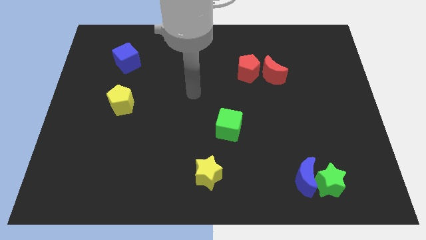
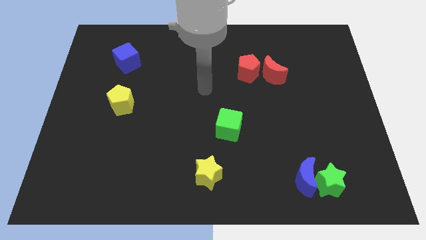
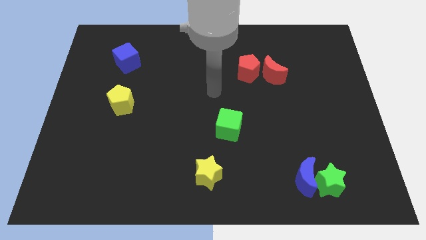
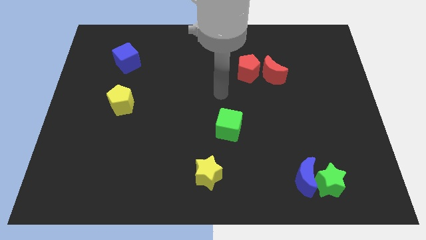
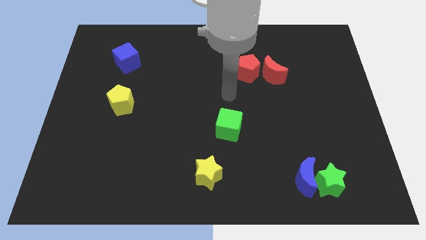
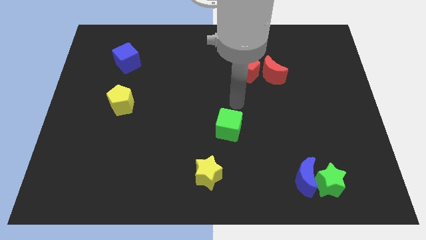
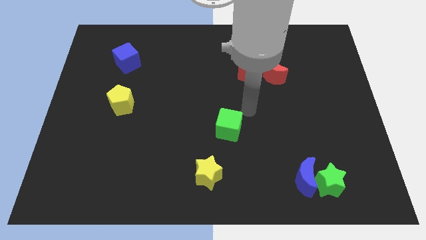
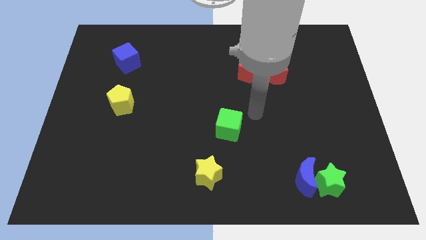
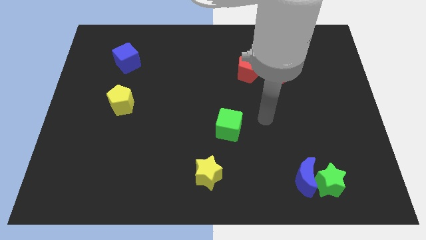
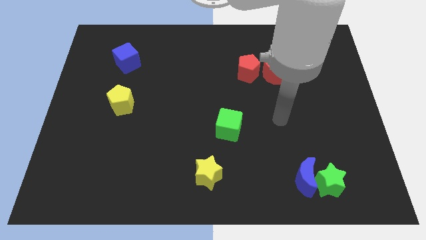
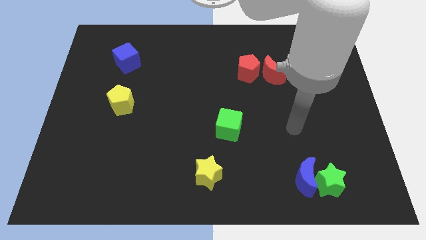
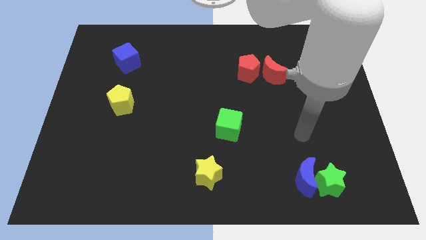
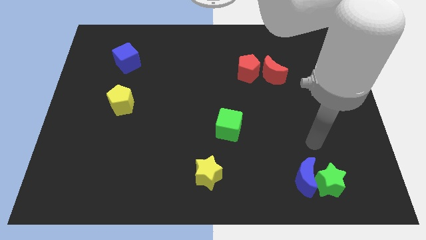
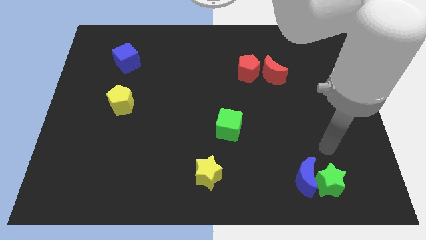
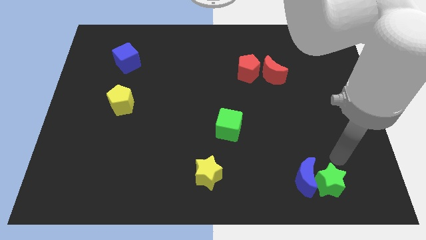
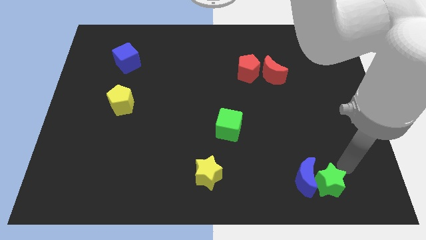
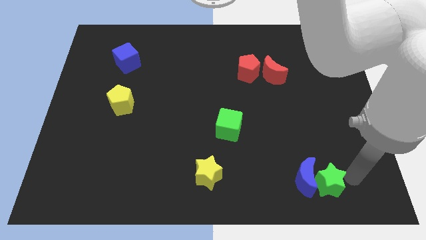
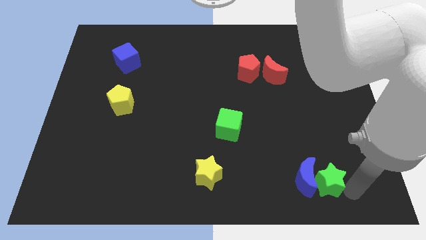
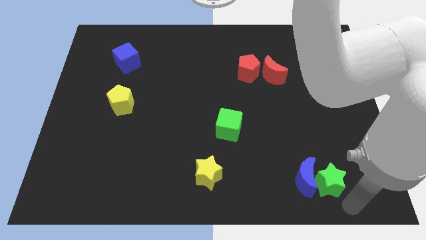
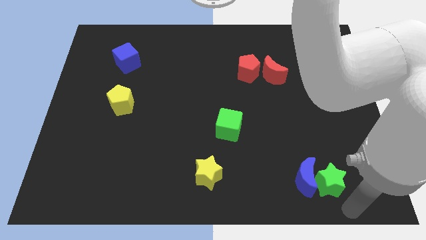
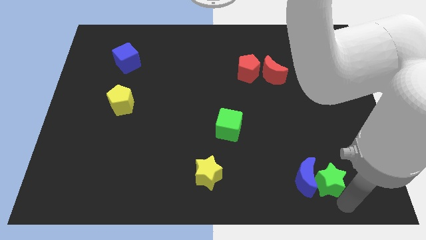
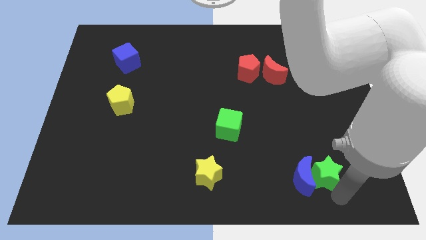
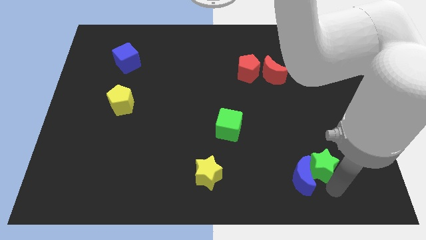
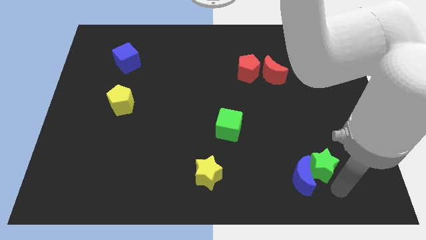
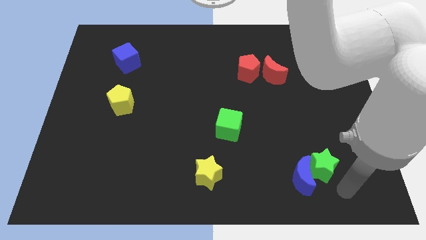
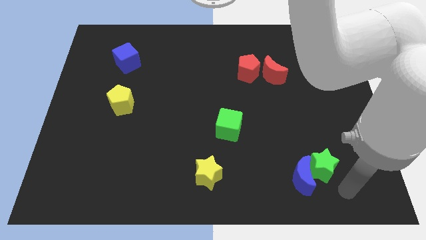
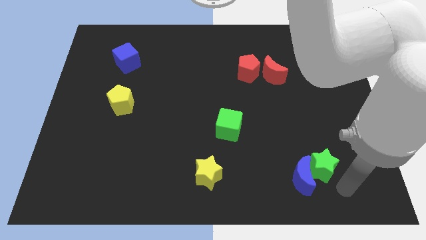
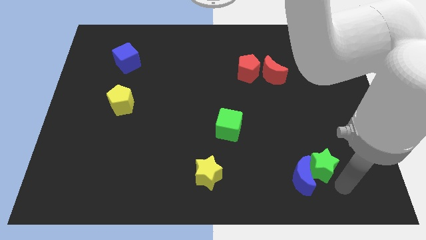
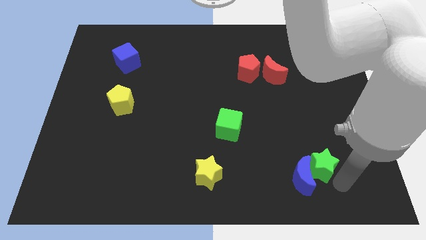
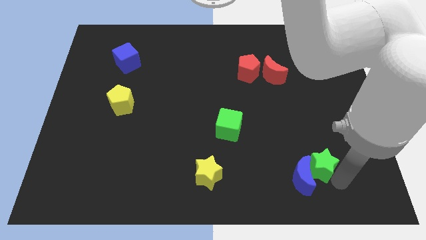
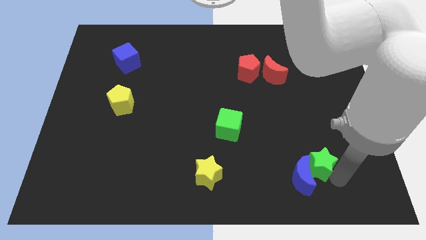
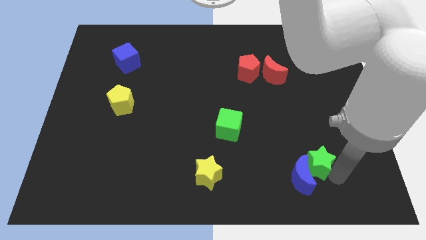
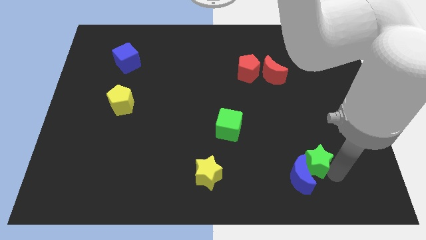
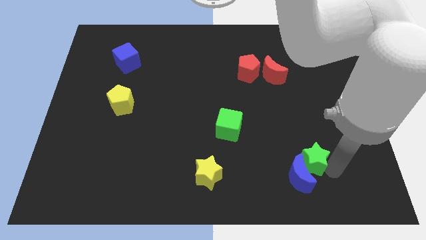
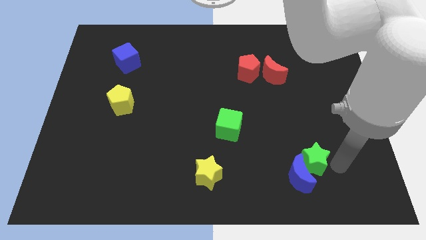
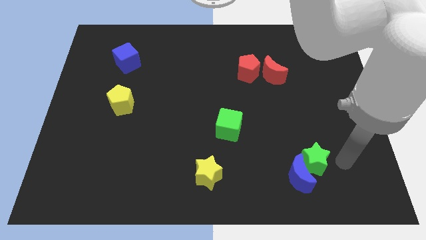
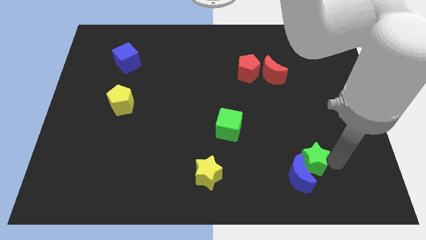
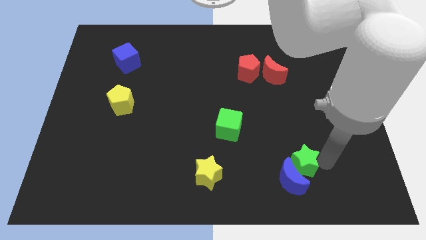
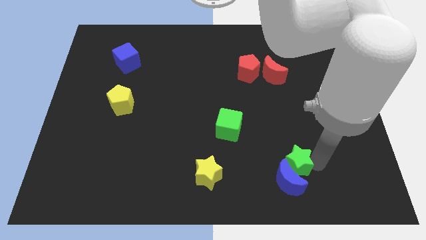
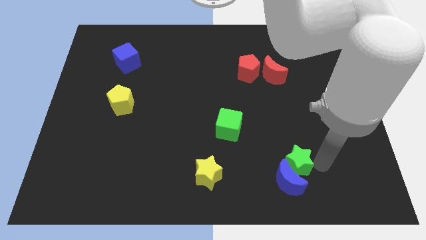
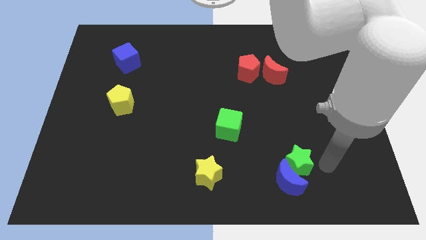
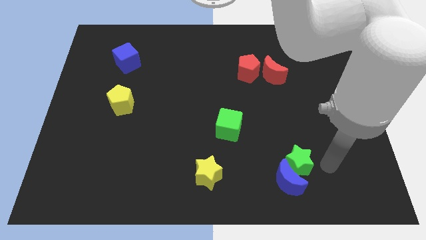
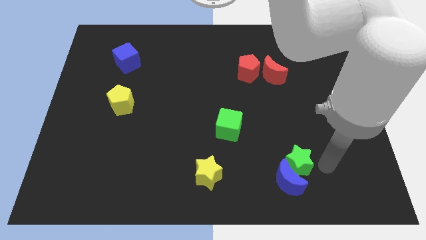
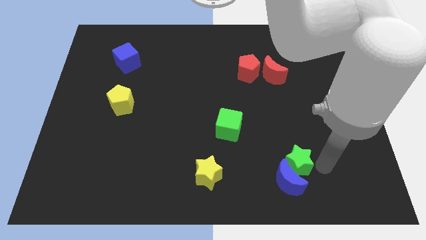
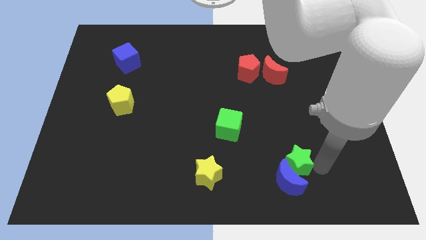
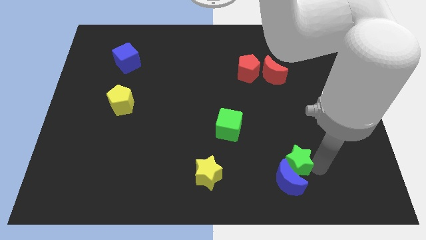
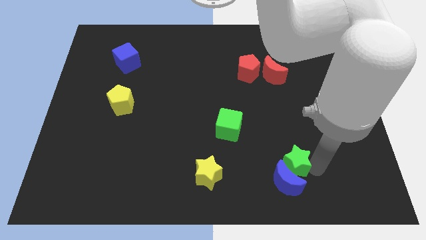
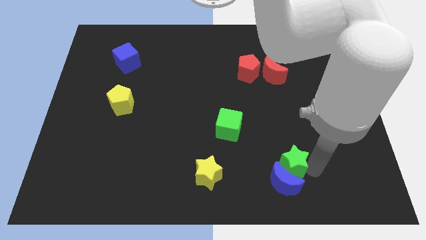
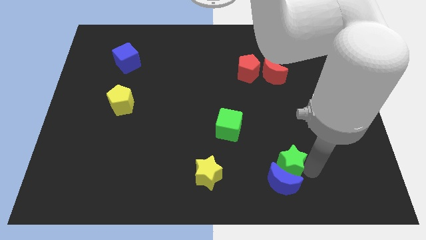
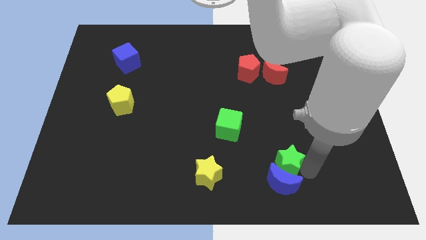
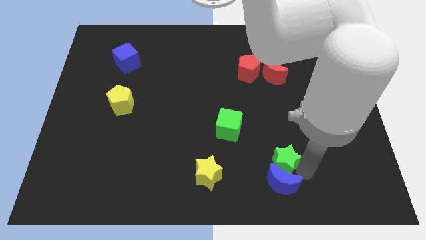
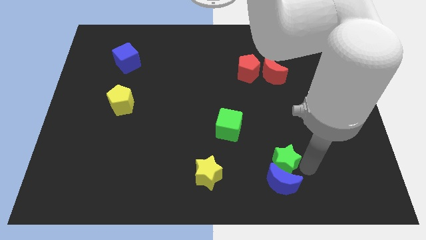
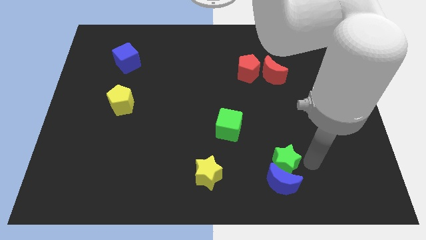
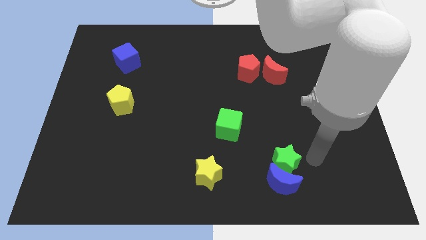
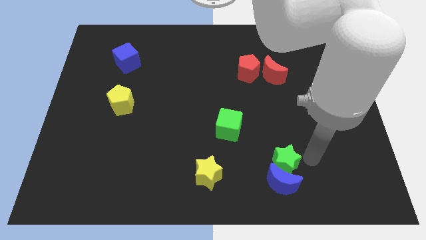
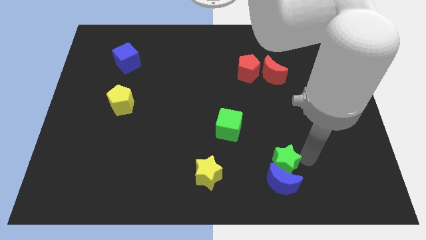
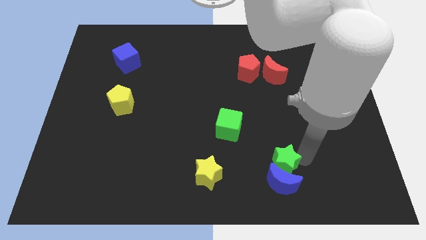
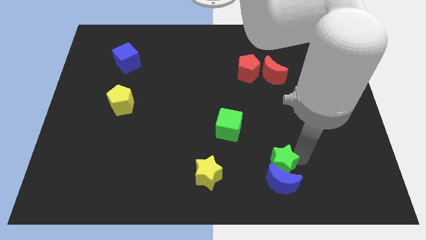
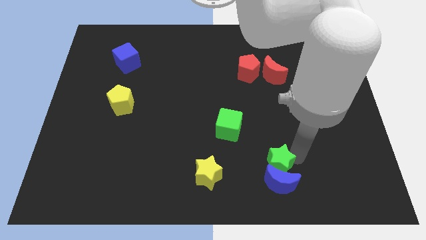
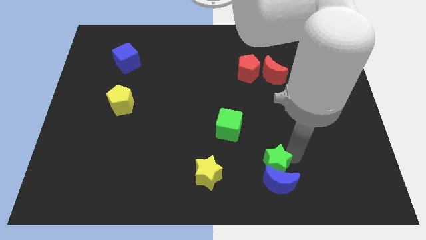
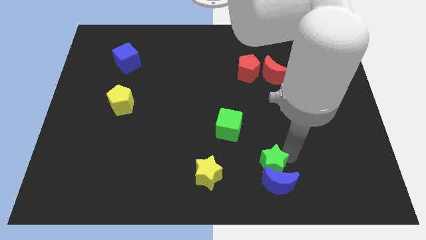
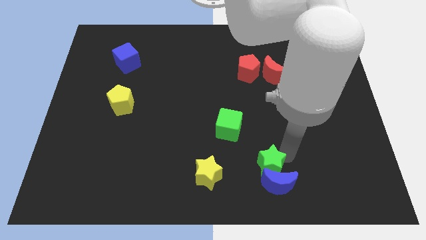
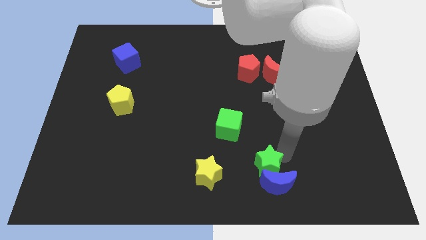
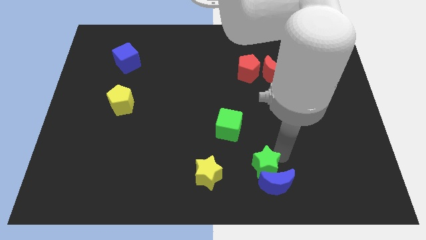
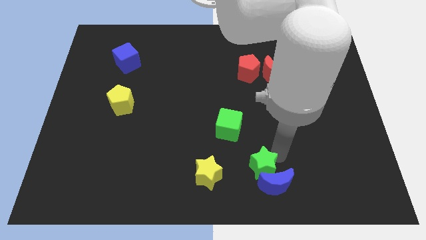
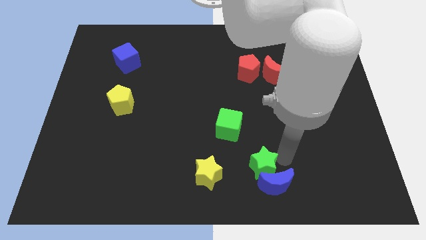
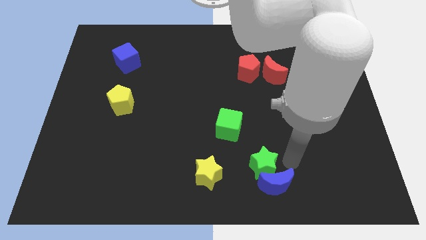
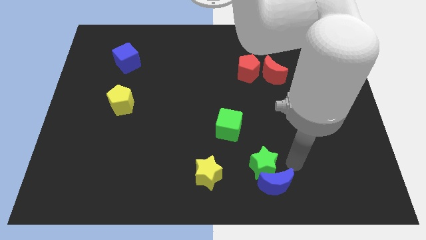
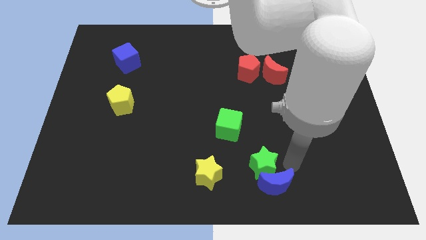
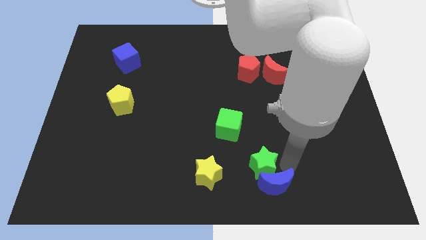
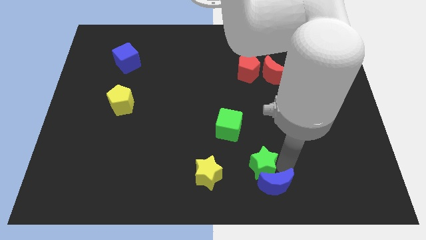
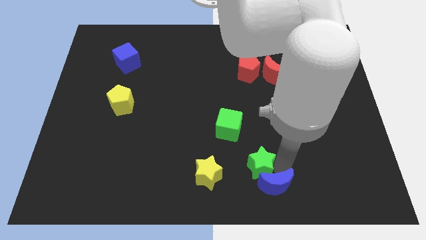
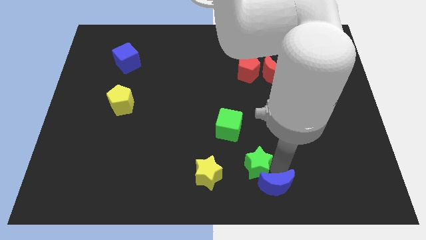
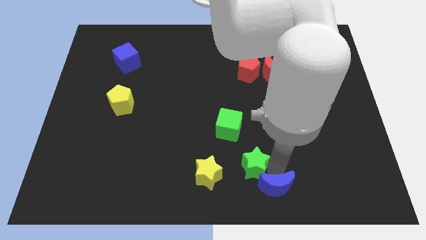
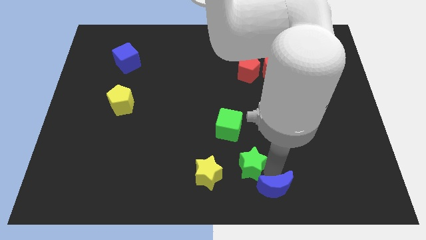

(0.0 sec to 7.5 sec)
move the green star to the bottom side of the green cube

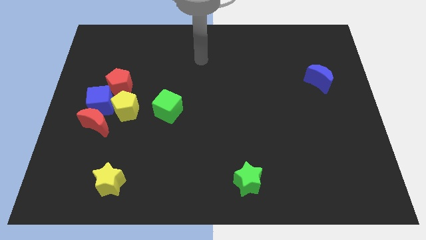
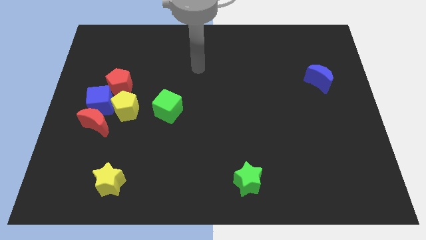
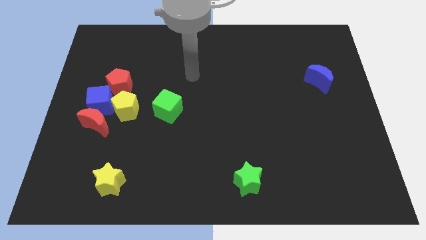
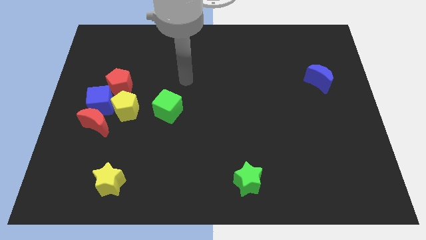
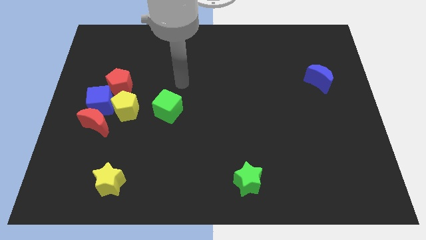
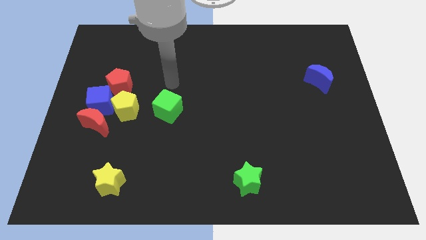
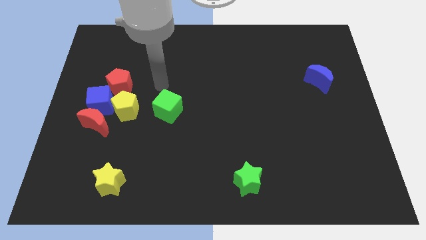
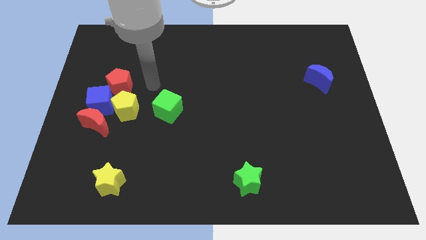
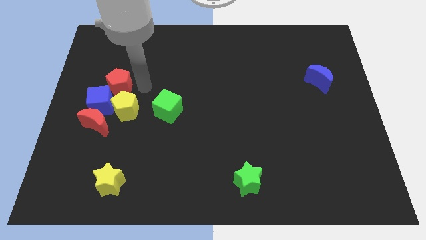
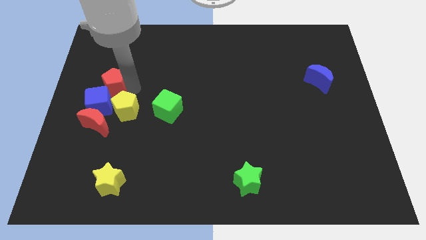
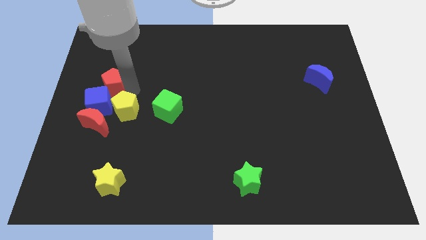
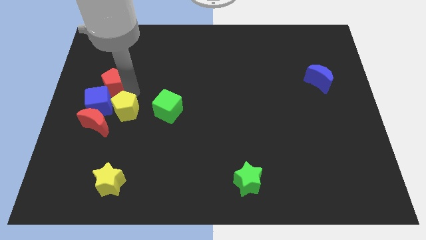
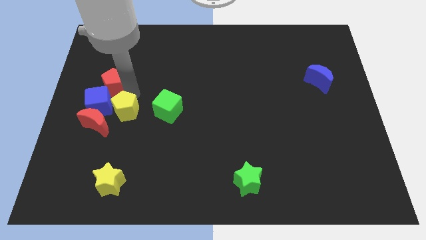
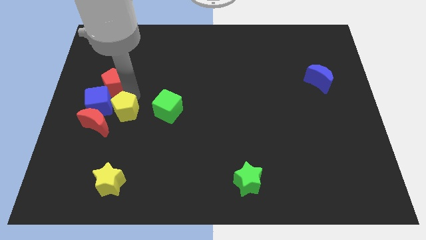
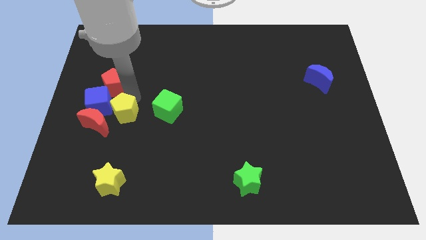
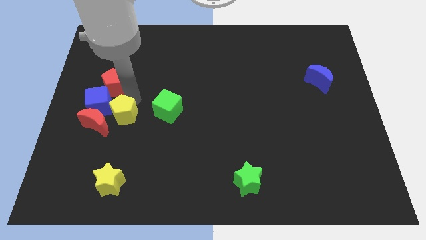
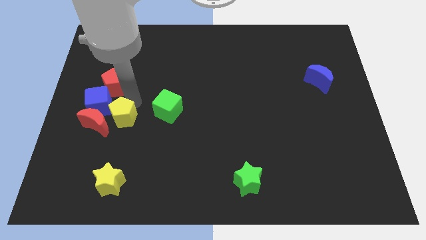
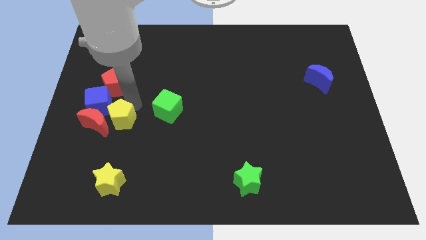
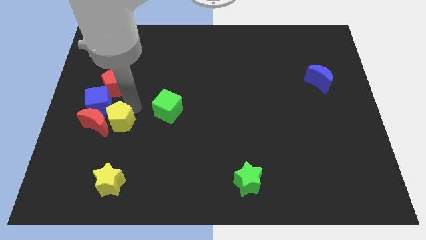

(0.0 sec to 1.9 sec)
push the yellow pentagon to the bottom right of the red moon
